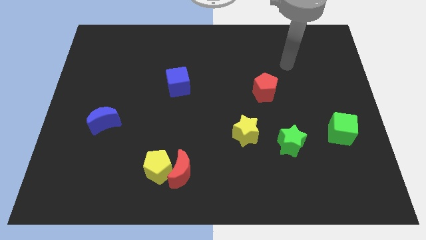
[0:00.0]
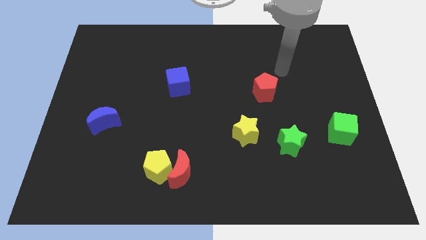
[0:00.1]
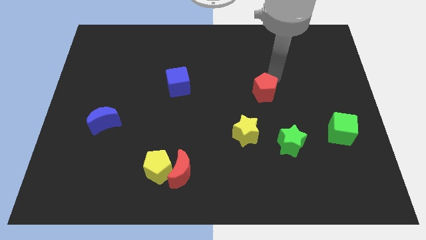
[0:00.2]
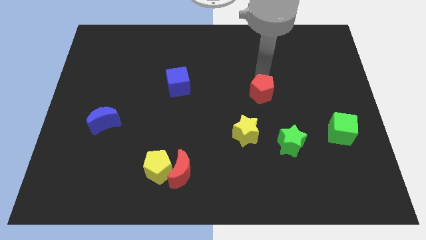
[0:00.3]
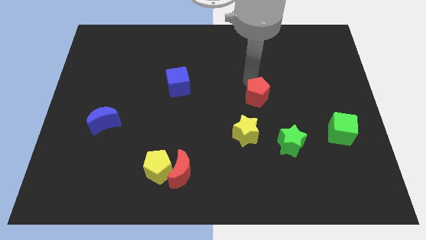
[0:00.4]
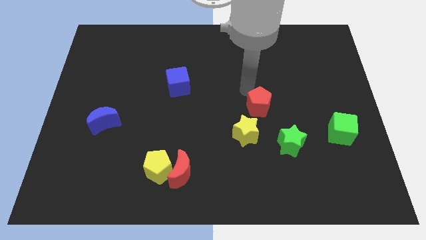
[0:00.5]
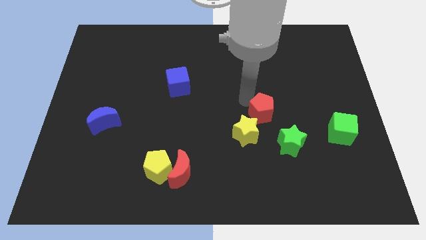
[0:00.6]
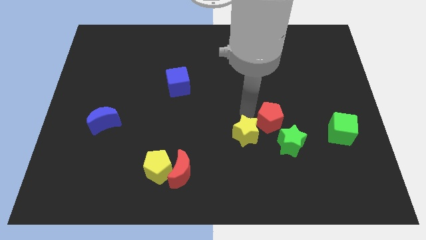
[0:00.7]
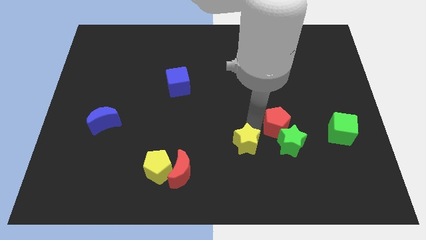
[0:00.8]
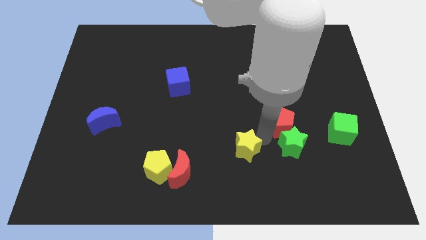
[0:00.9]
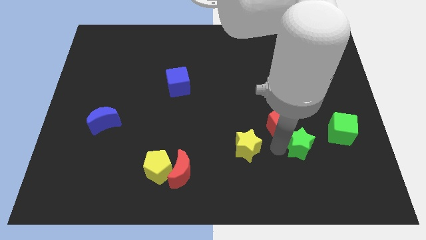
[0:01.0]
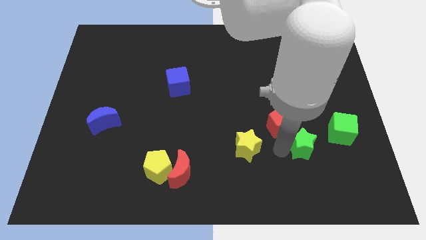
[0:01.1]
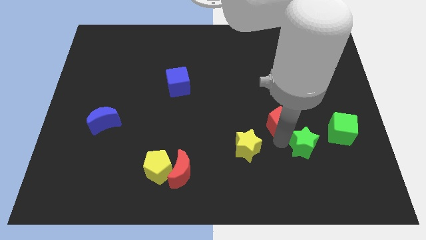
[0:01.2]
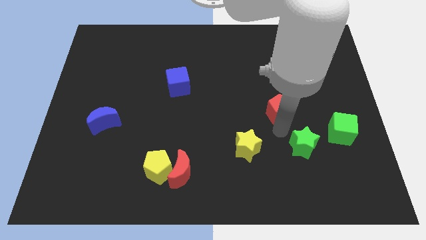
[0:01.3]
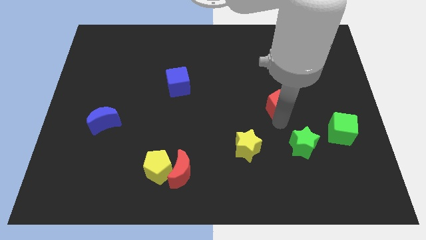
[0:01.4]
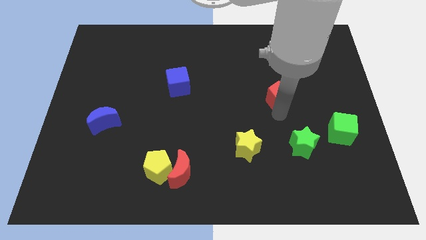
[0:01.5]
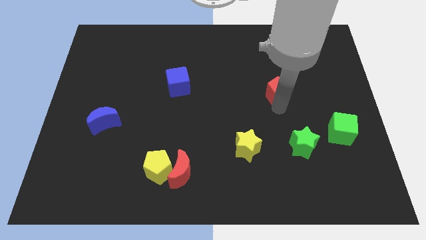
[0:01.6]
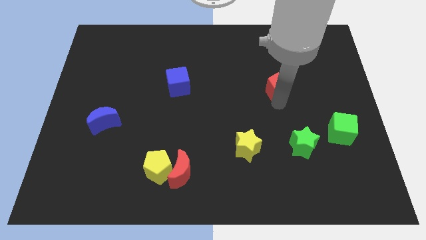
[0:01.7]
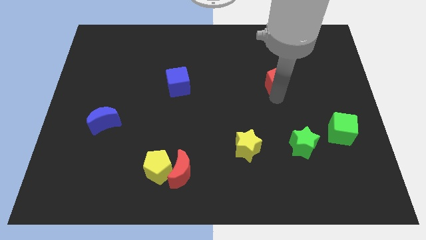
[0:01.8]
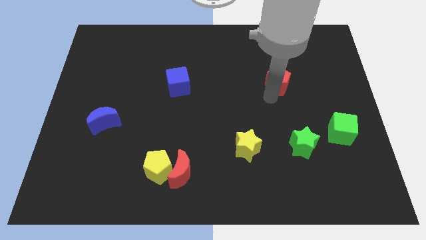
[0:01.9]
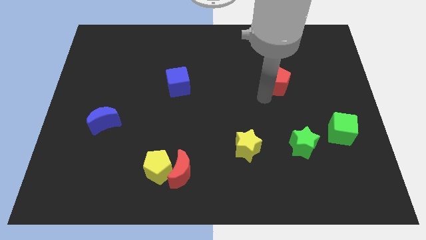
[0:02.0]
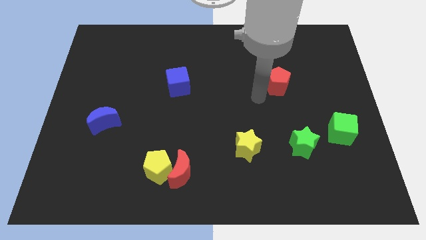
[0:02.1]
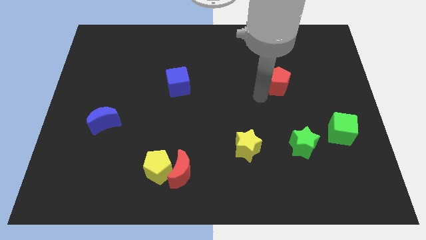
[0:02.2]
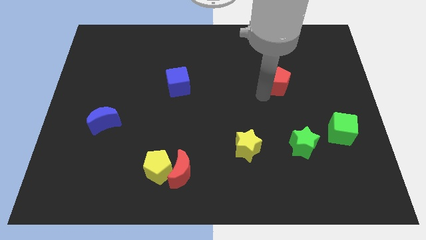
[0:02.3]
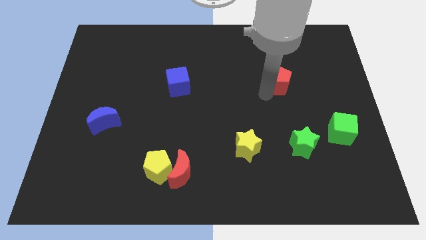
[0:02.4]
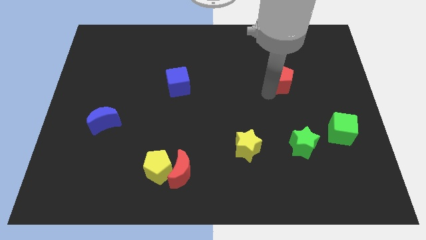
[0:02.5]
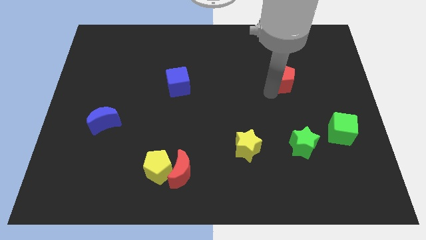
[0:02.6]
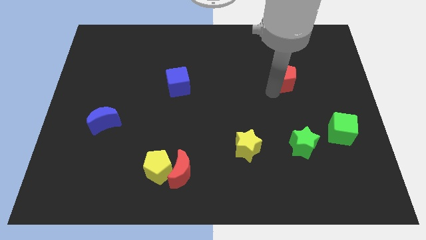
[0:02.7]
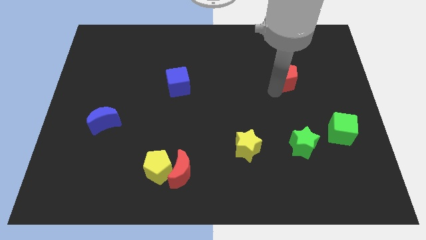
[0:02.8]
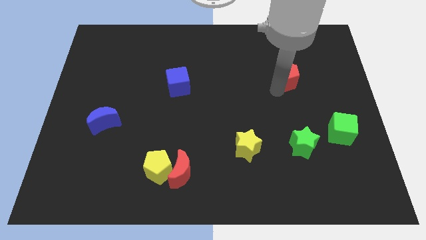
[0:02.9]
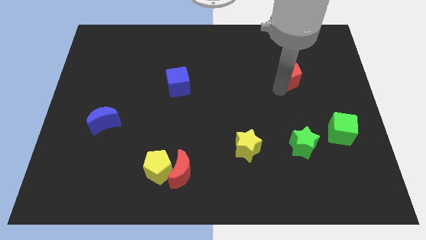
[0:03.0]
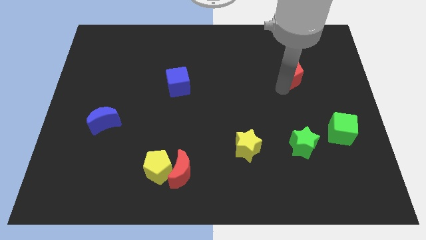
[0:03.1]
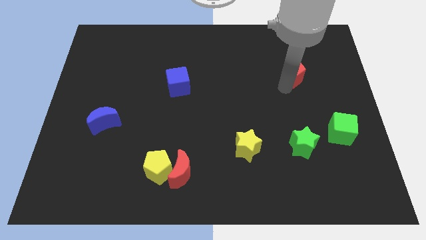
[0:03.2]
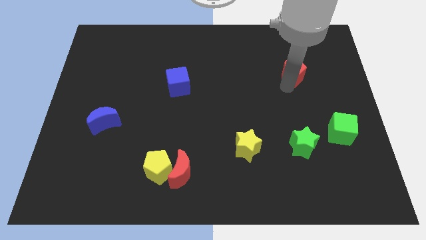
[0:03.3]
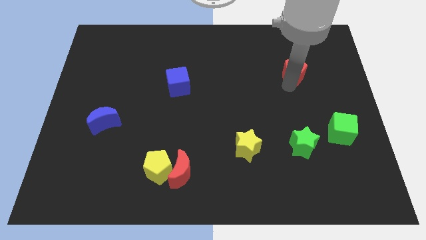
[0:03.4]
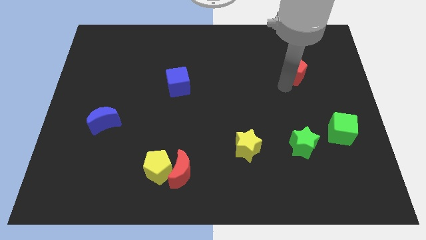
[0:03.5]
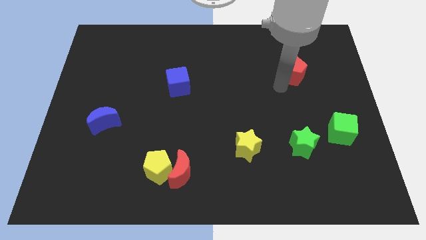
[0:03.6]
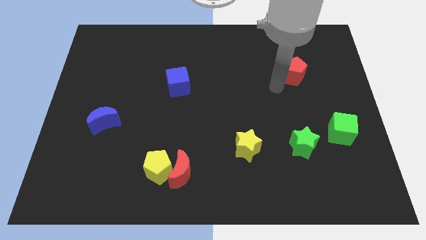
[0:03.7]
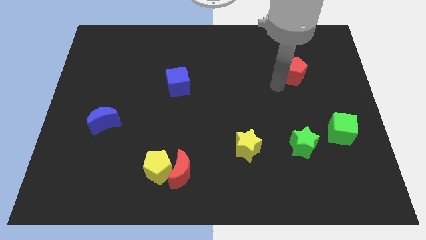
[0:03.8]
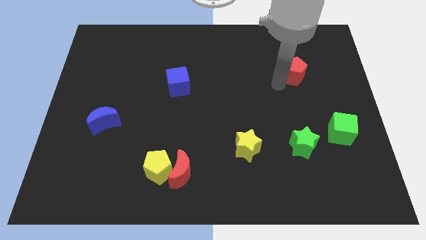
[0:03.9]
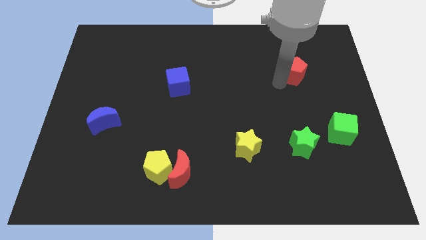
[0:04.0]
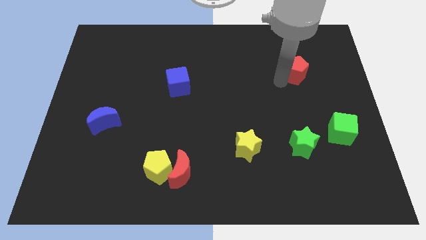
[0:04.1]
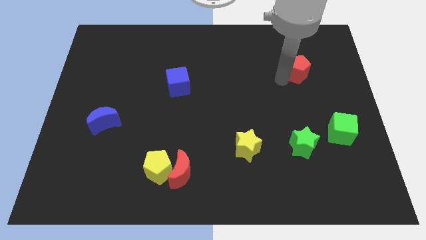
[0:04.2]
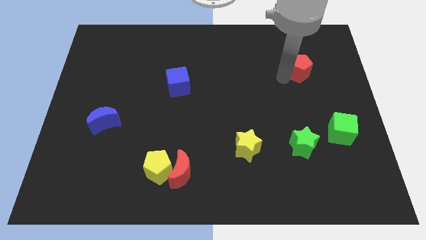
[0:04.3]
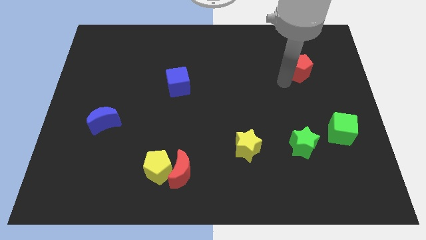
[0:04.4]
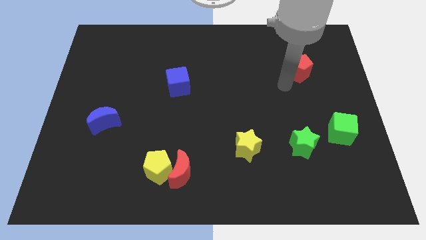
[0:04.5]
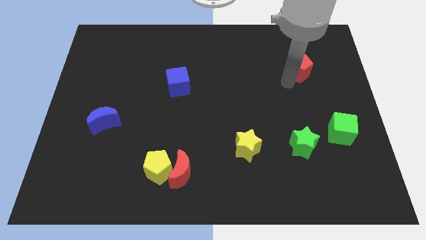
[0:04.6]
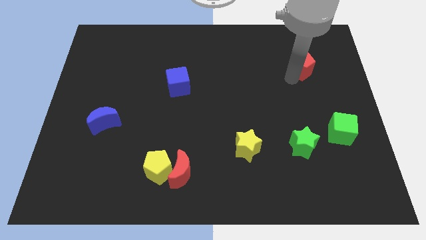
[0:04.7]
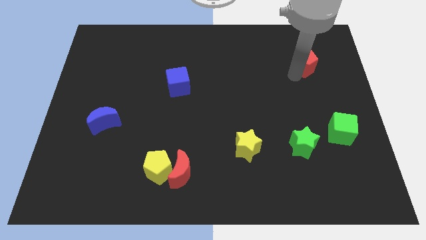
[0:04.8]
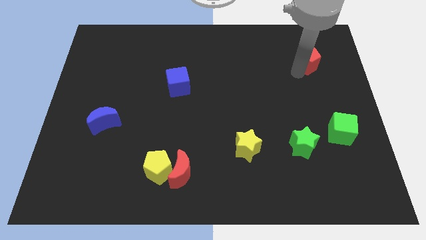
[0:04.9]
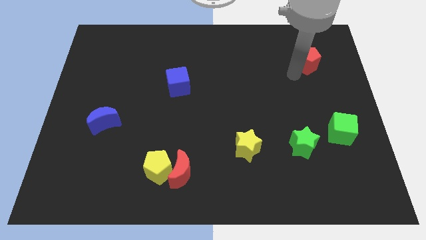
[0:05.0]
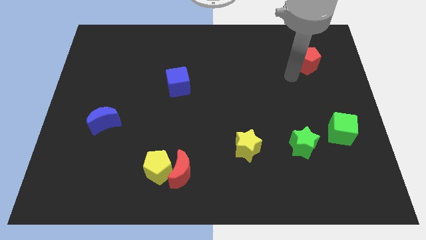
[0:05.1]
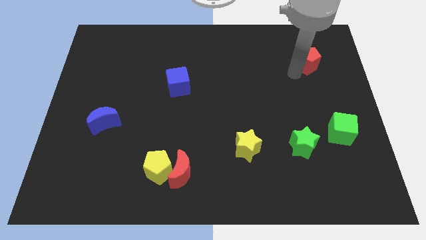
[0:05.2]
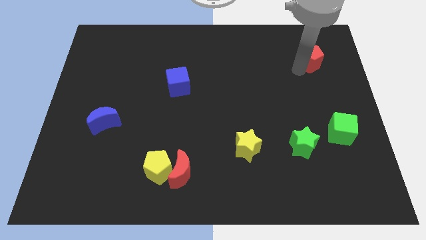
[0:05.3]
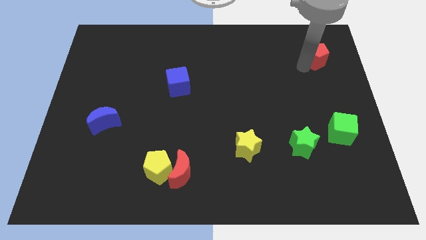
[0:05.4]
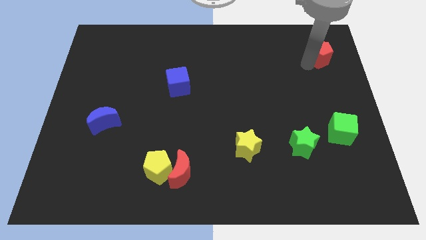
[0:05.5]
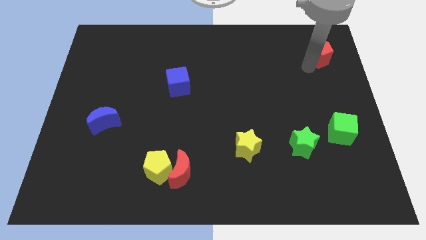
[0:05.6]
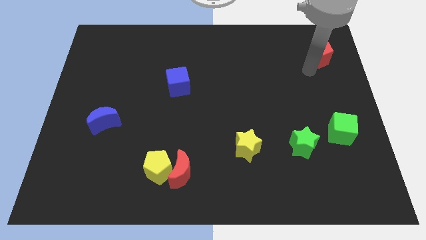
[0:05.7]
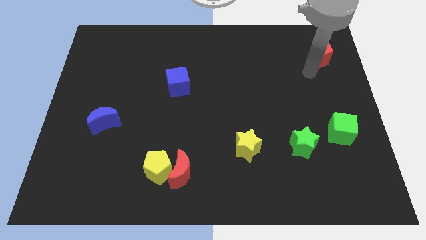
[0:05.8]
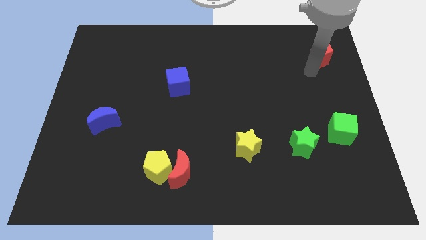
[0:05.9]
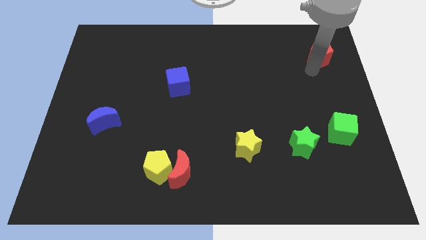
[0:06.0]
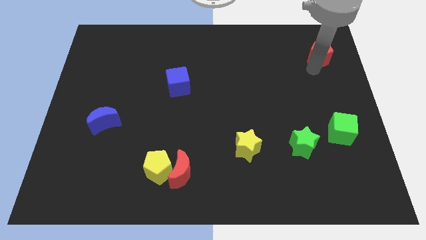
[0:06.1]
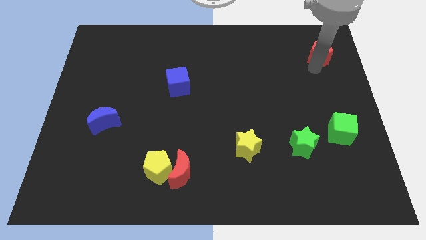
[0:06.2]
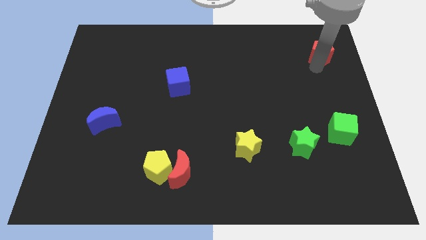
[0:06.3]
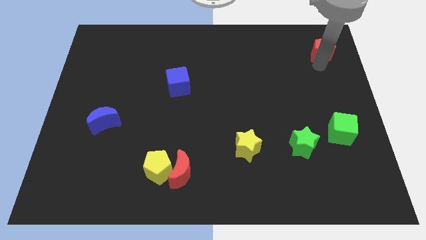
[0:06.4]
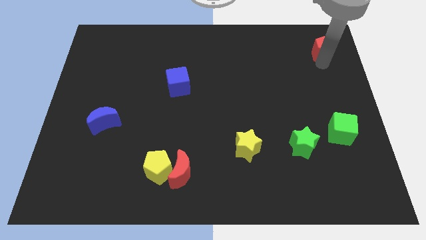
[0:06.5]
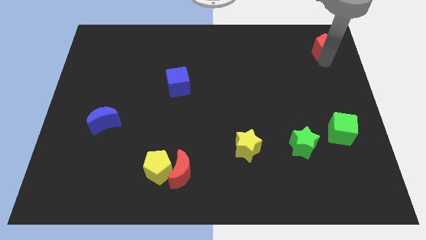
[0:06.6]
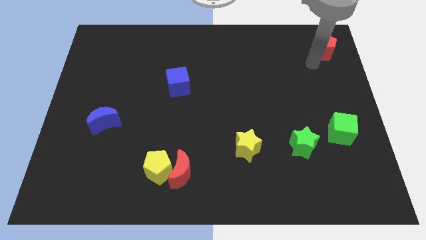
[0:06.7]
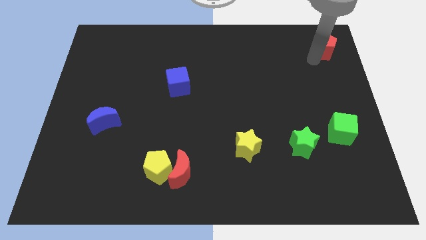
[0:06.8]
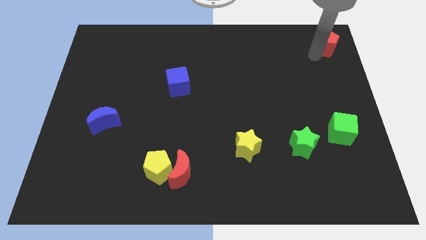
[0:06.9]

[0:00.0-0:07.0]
push the red pentagon to the top right
